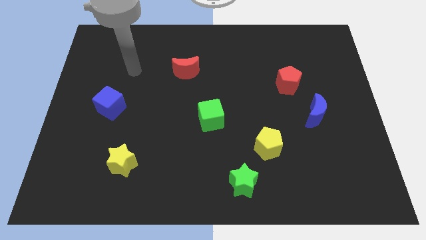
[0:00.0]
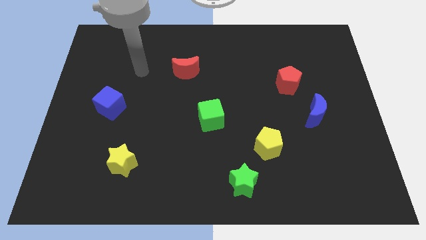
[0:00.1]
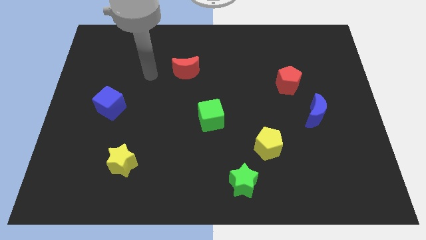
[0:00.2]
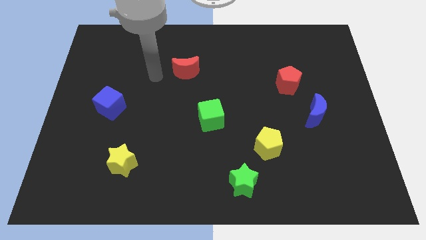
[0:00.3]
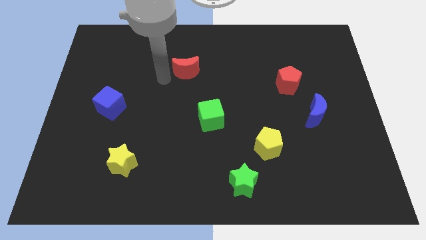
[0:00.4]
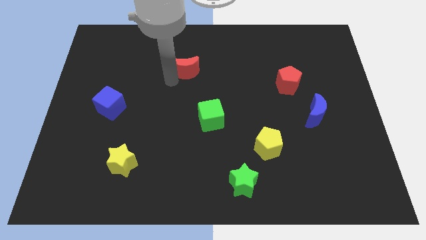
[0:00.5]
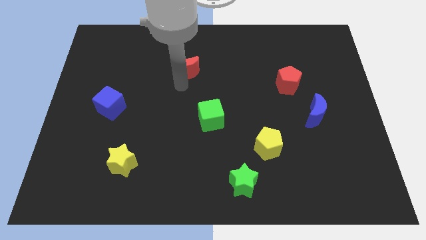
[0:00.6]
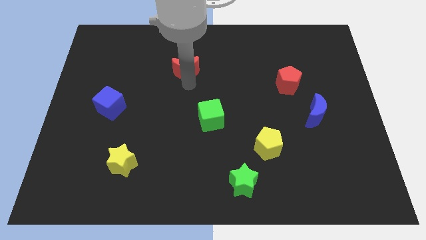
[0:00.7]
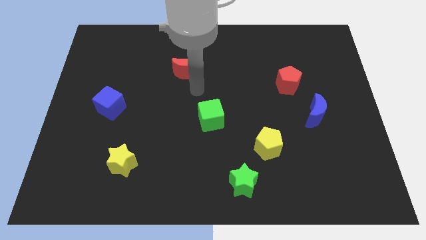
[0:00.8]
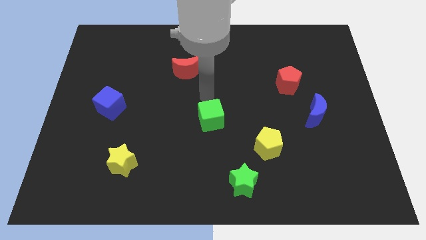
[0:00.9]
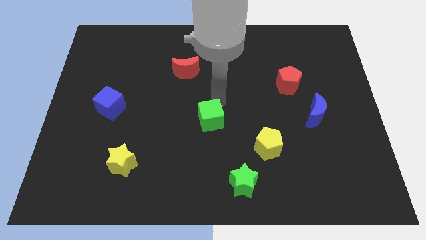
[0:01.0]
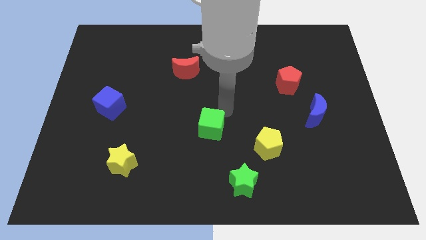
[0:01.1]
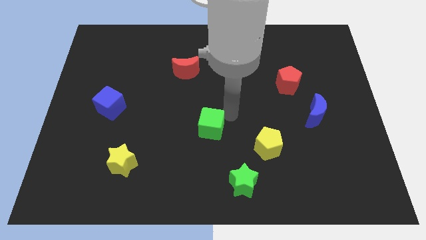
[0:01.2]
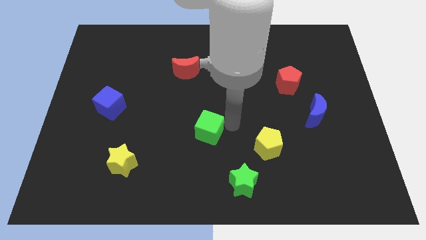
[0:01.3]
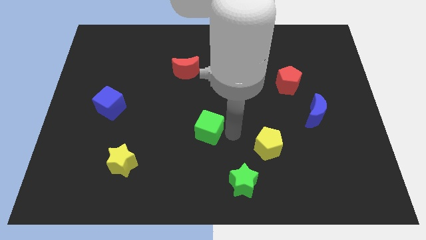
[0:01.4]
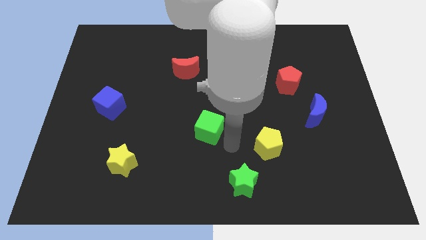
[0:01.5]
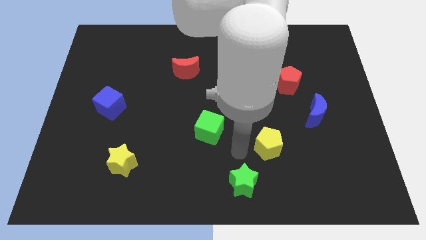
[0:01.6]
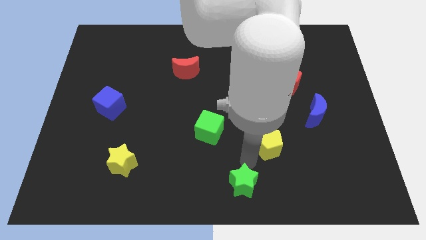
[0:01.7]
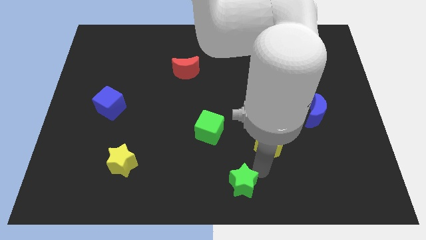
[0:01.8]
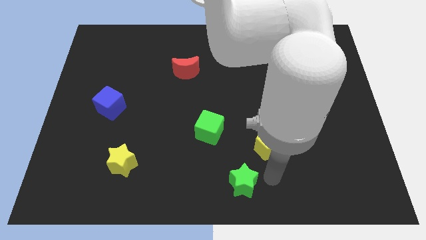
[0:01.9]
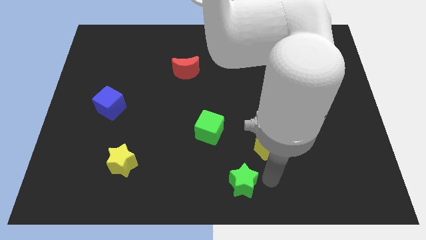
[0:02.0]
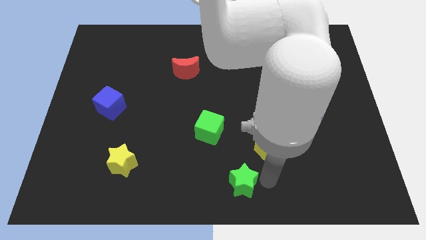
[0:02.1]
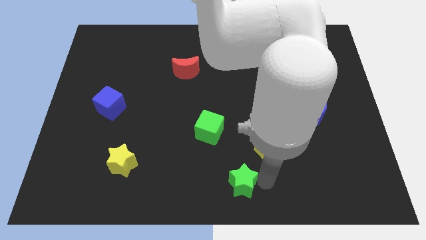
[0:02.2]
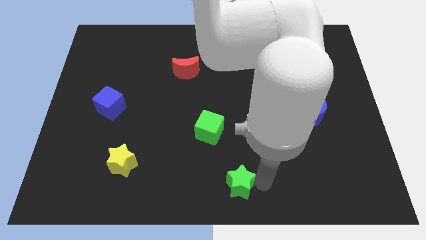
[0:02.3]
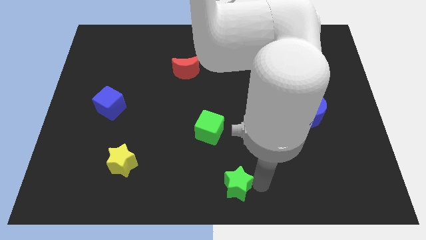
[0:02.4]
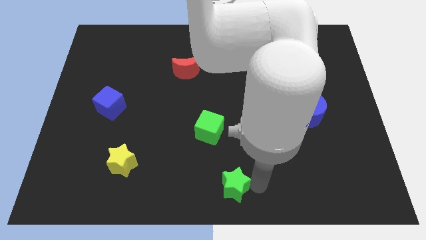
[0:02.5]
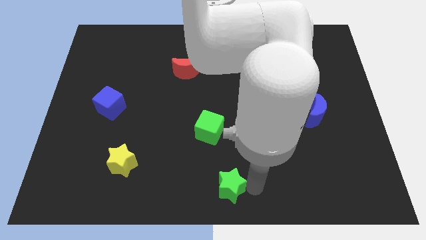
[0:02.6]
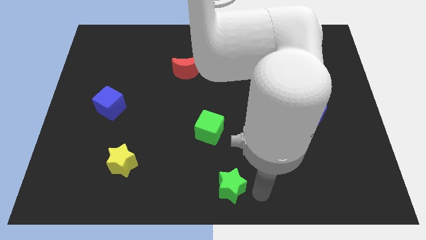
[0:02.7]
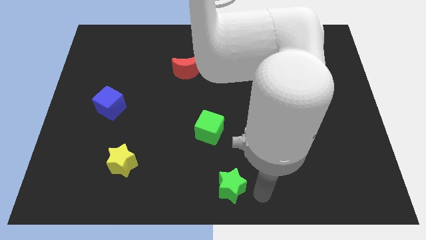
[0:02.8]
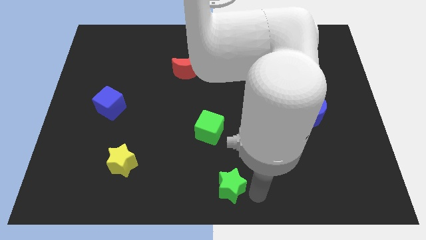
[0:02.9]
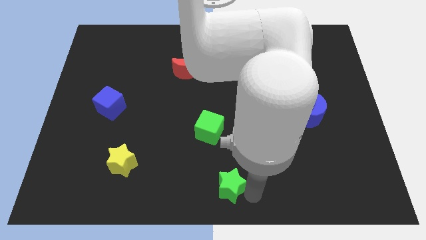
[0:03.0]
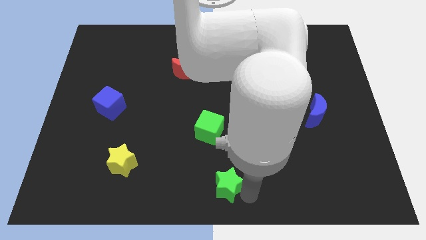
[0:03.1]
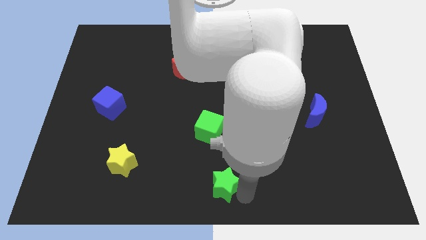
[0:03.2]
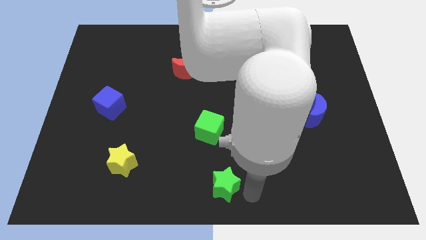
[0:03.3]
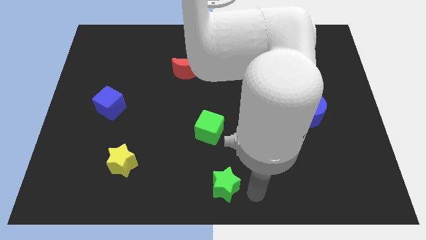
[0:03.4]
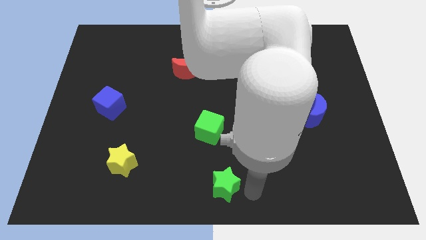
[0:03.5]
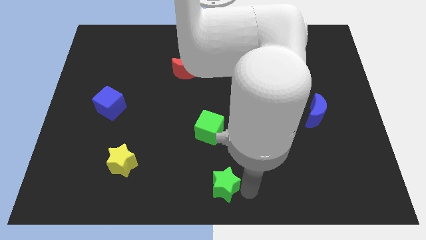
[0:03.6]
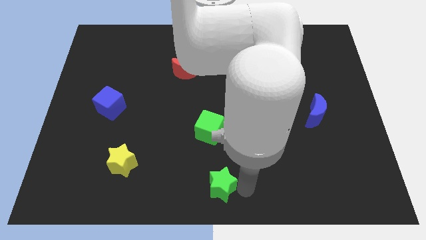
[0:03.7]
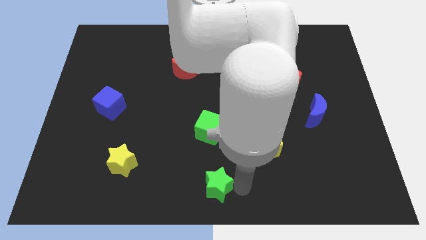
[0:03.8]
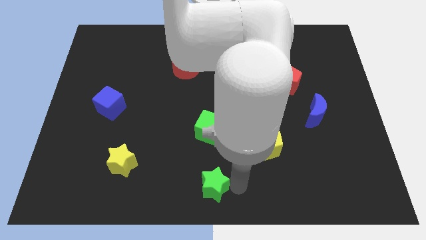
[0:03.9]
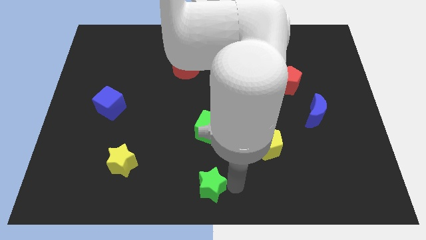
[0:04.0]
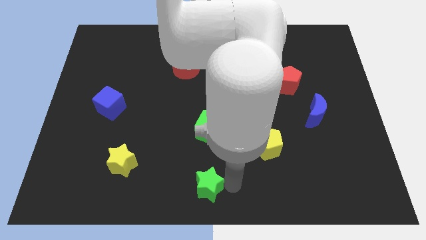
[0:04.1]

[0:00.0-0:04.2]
slightly slide the green star to the left

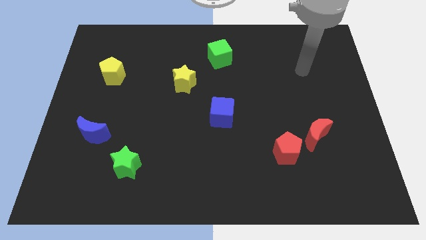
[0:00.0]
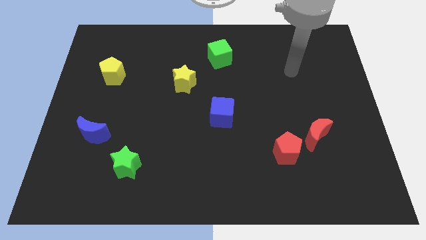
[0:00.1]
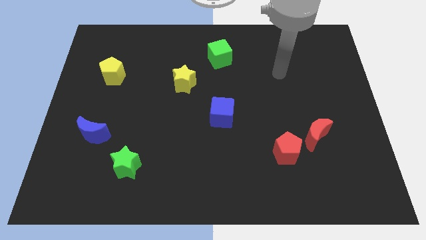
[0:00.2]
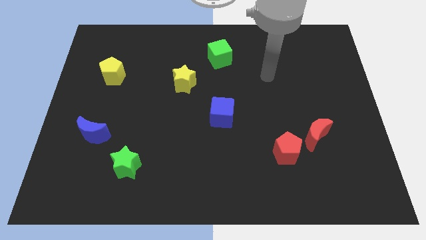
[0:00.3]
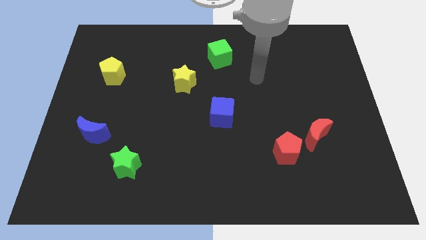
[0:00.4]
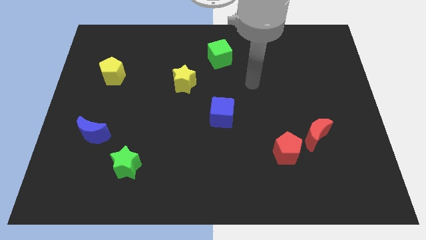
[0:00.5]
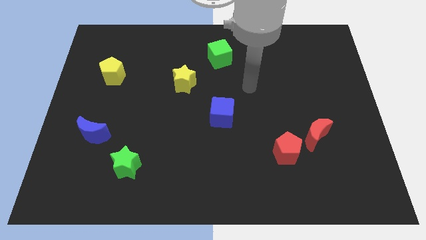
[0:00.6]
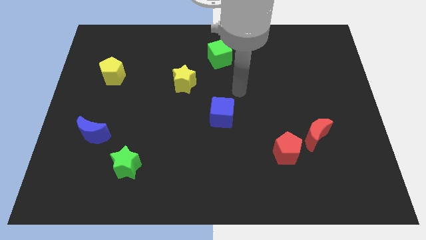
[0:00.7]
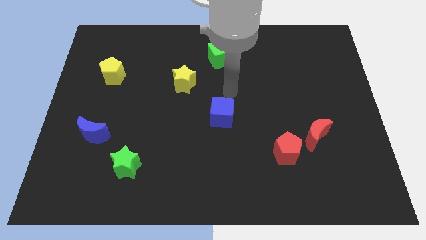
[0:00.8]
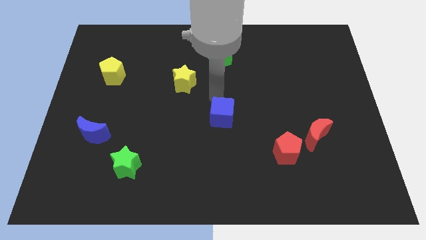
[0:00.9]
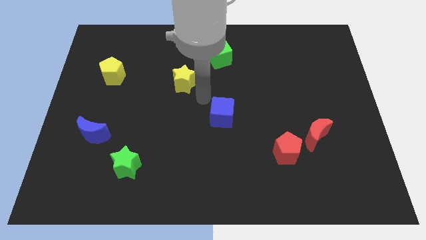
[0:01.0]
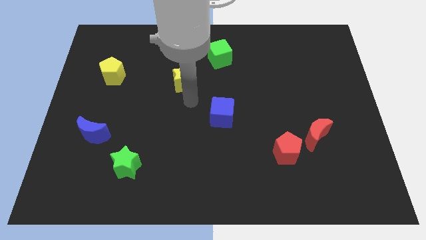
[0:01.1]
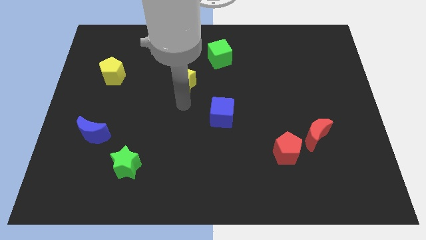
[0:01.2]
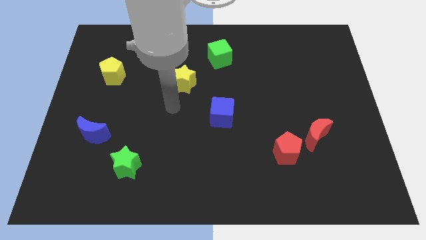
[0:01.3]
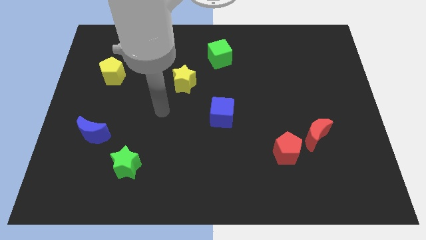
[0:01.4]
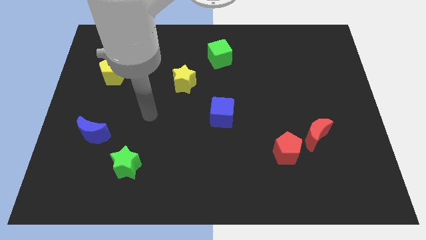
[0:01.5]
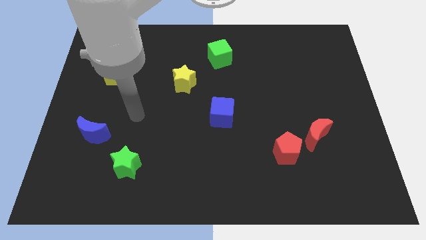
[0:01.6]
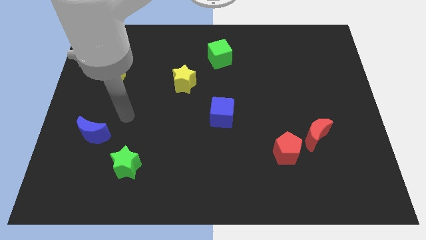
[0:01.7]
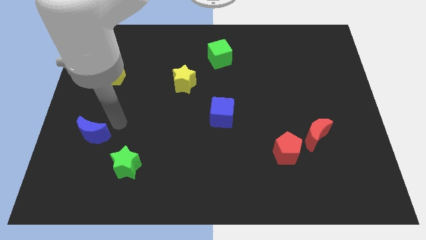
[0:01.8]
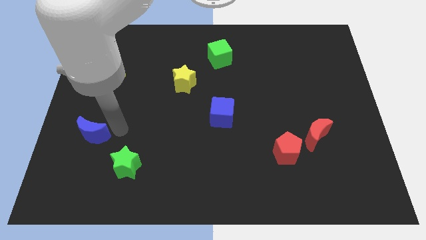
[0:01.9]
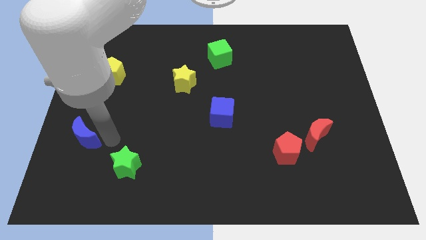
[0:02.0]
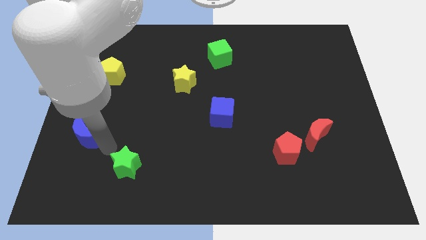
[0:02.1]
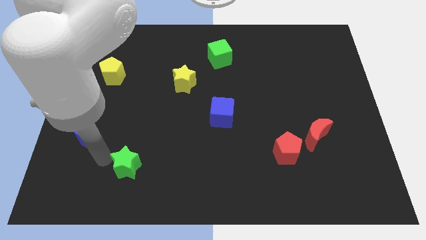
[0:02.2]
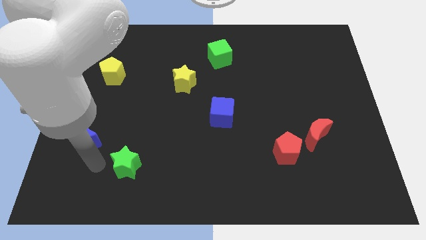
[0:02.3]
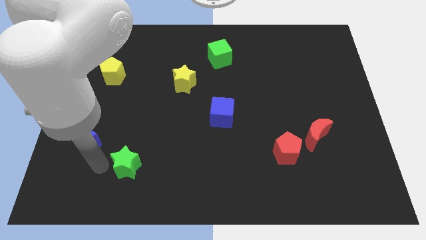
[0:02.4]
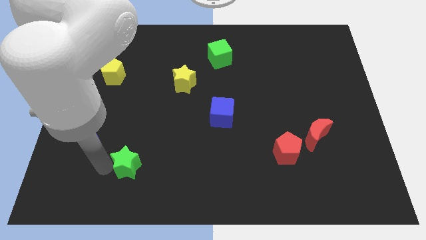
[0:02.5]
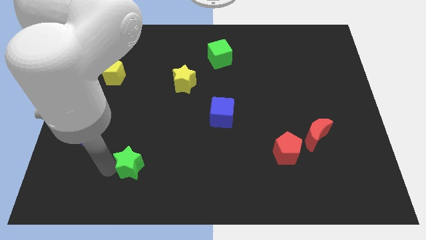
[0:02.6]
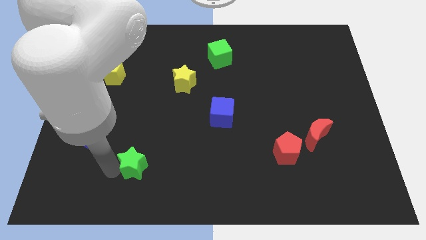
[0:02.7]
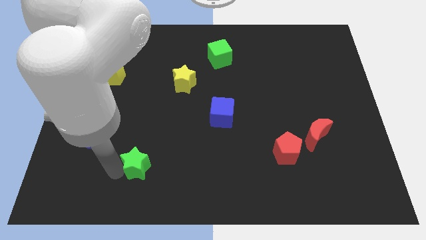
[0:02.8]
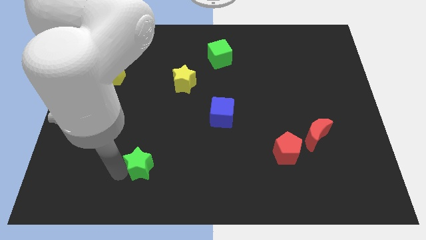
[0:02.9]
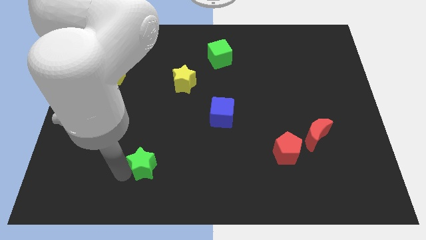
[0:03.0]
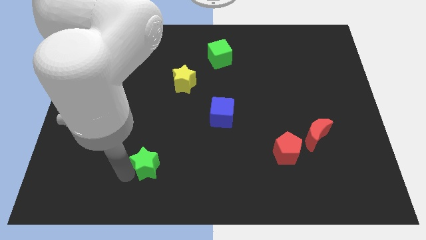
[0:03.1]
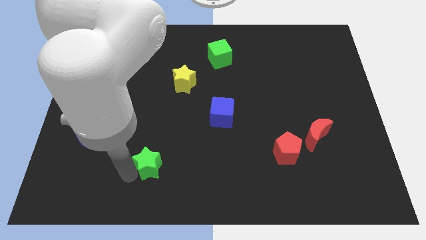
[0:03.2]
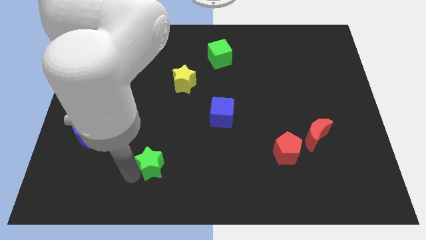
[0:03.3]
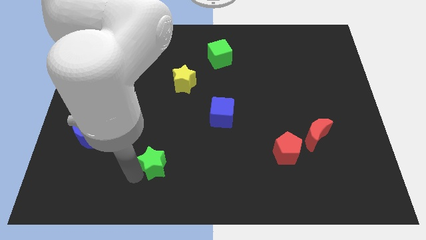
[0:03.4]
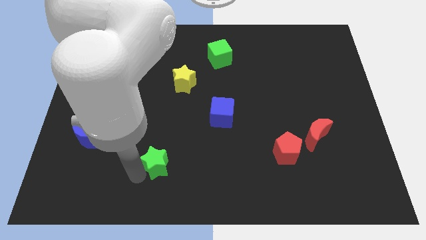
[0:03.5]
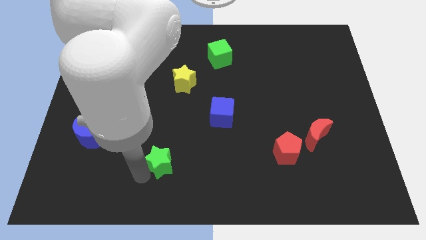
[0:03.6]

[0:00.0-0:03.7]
move the green star to the right a bit
